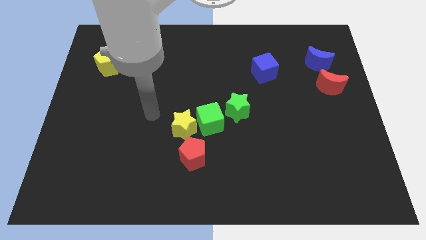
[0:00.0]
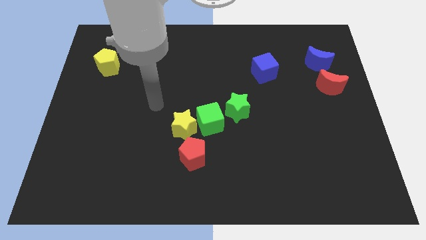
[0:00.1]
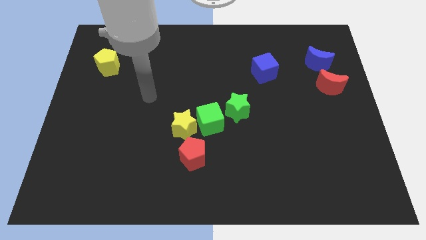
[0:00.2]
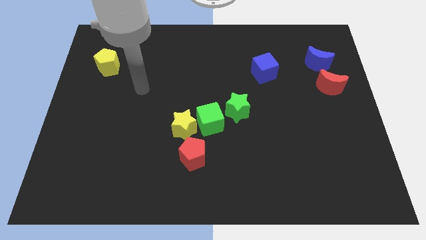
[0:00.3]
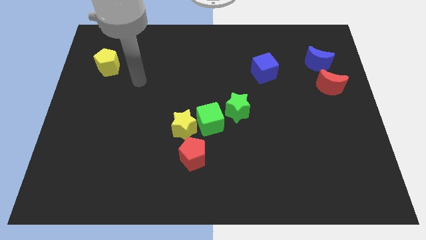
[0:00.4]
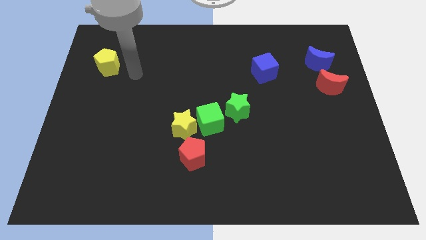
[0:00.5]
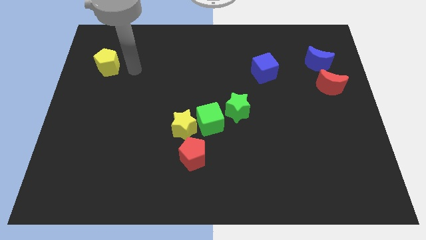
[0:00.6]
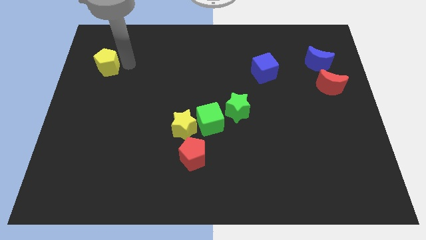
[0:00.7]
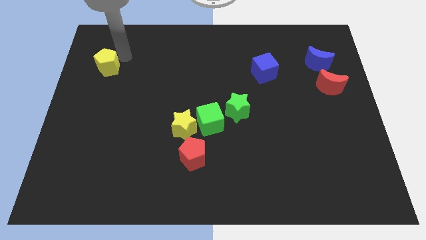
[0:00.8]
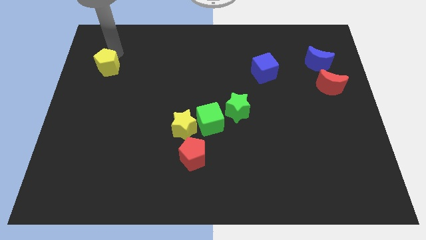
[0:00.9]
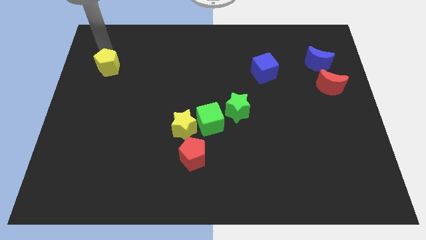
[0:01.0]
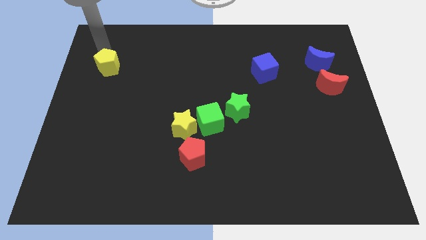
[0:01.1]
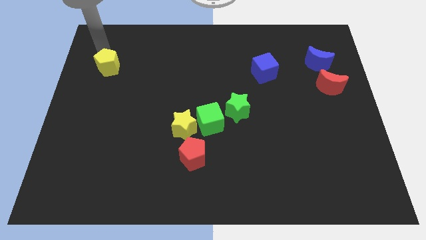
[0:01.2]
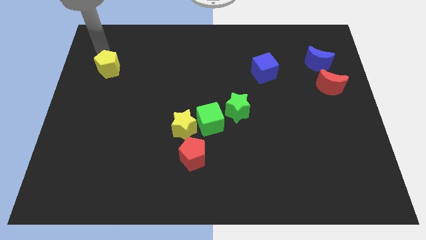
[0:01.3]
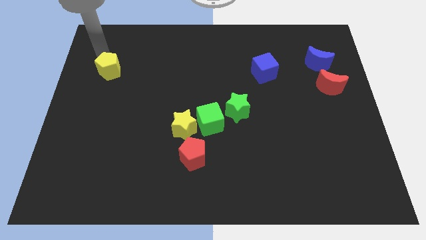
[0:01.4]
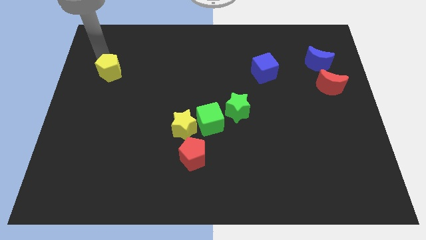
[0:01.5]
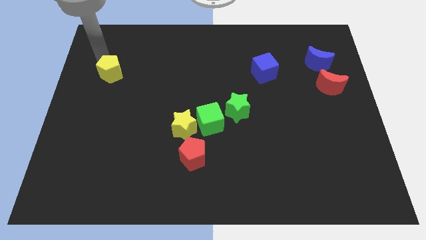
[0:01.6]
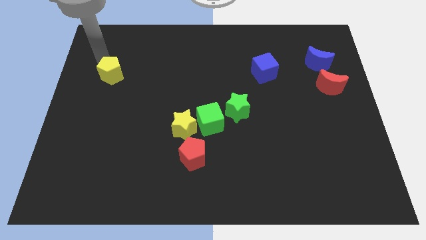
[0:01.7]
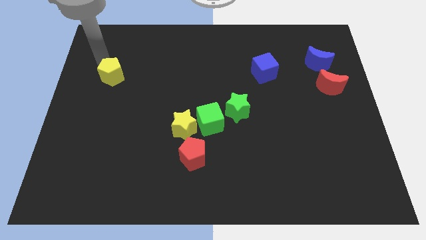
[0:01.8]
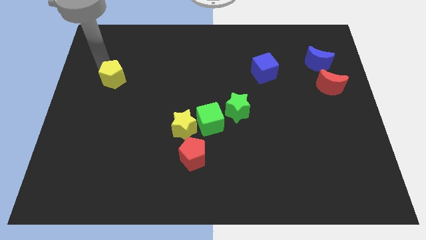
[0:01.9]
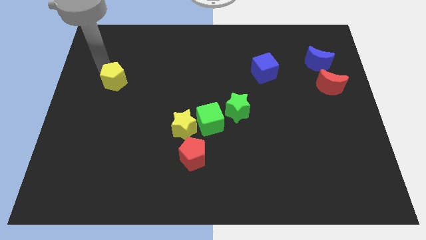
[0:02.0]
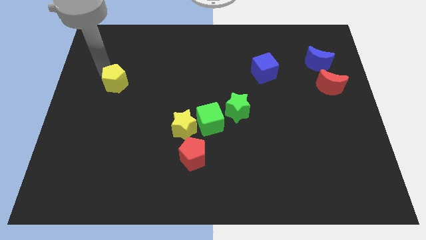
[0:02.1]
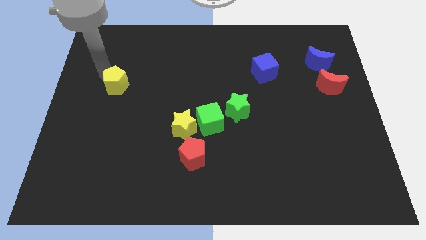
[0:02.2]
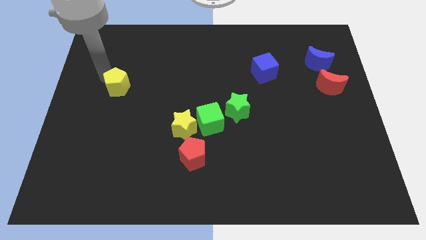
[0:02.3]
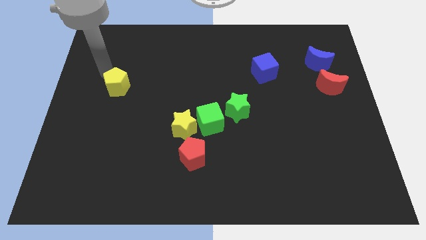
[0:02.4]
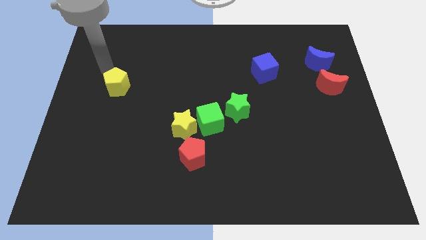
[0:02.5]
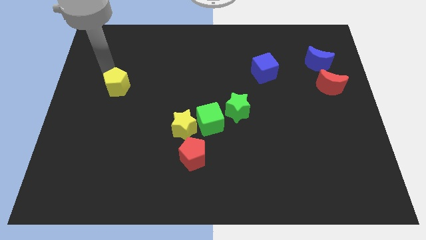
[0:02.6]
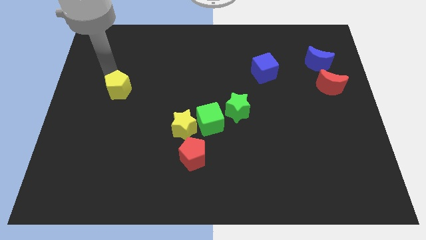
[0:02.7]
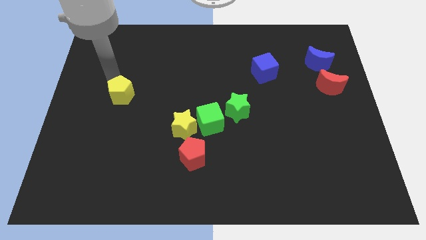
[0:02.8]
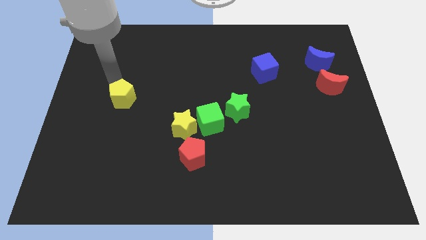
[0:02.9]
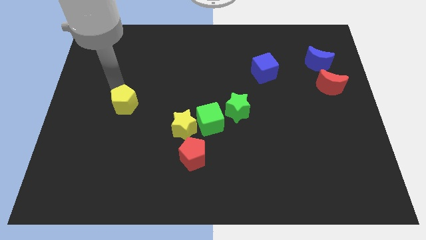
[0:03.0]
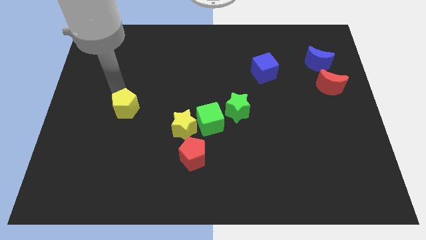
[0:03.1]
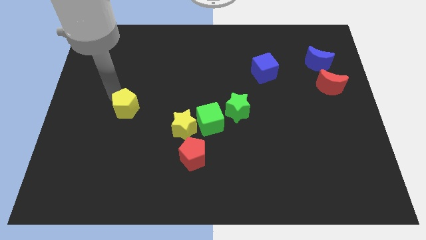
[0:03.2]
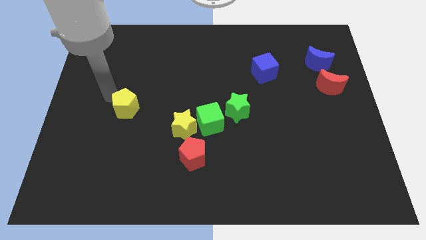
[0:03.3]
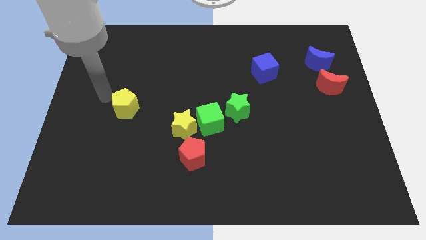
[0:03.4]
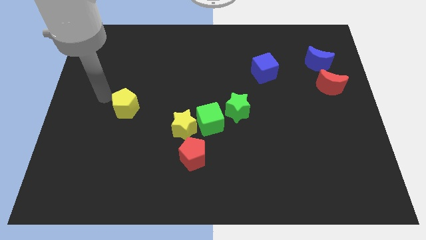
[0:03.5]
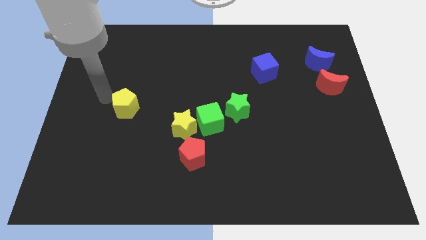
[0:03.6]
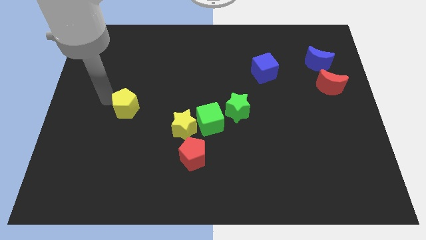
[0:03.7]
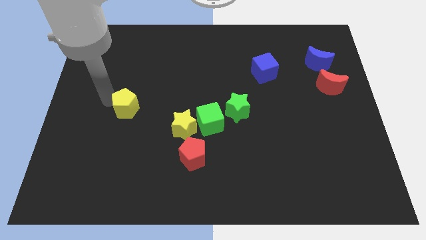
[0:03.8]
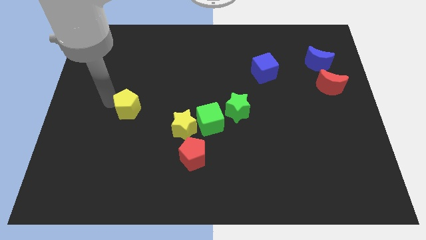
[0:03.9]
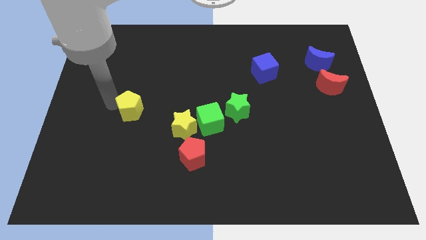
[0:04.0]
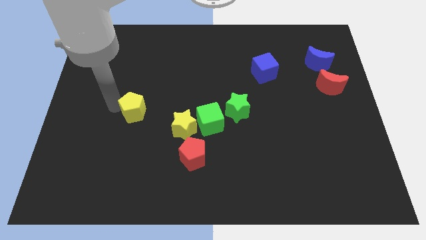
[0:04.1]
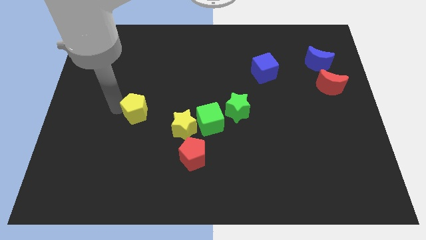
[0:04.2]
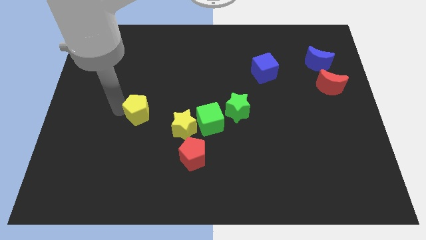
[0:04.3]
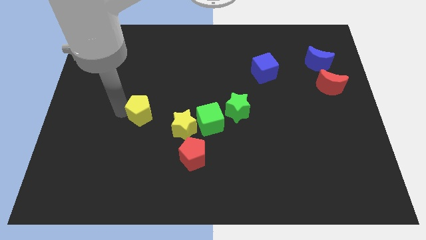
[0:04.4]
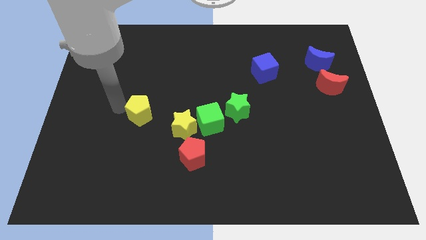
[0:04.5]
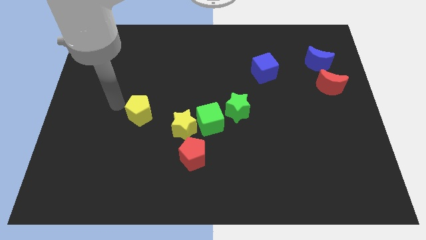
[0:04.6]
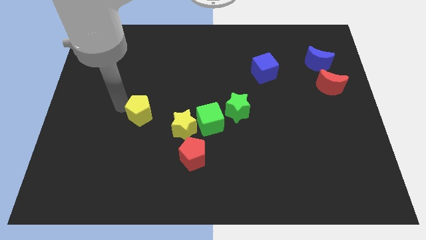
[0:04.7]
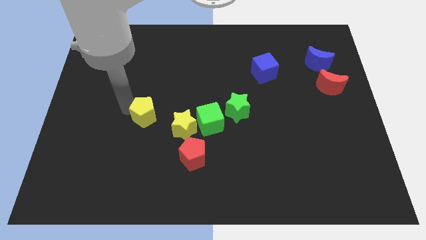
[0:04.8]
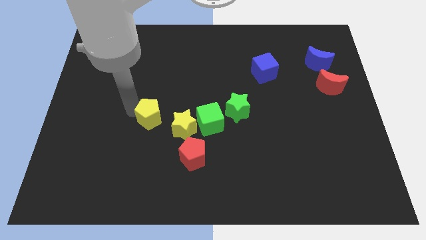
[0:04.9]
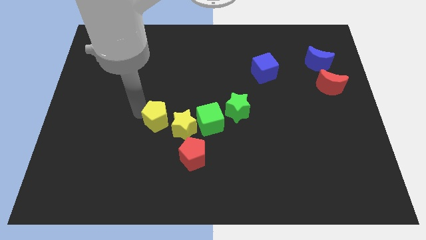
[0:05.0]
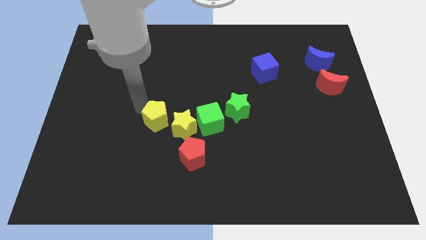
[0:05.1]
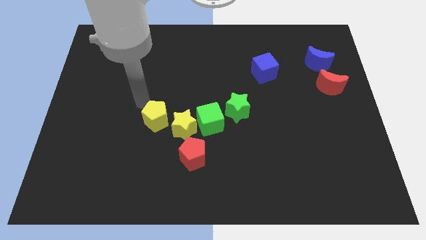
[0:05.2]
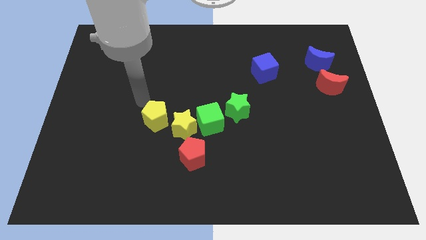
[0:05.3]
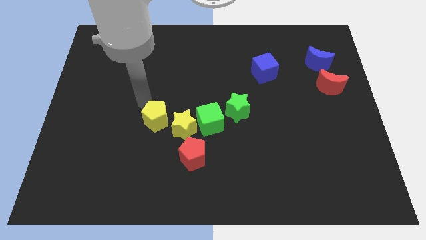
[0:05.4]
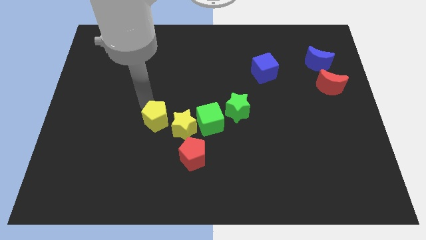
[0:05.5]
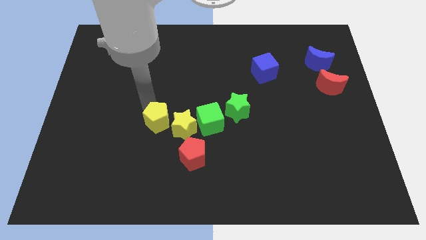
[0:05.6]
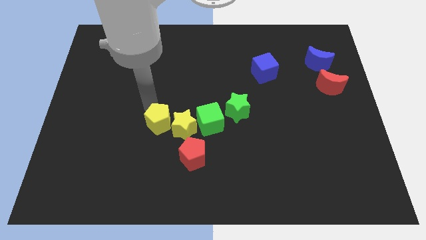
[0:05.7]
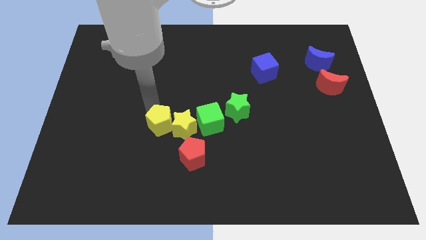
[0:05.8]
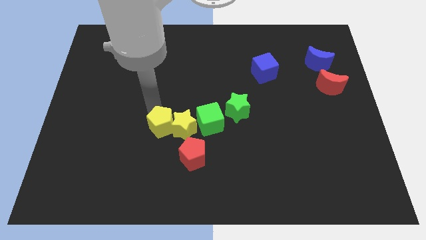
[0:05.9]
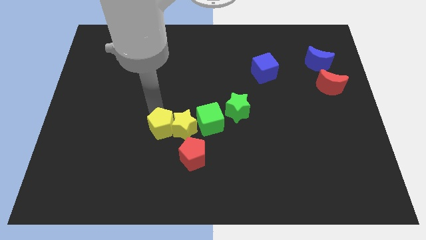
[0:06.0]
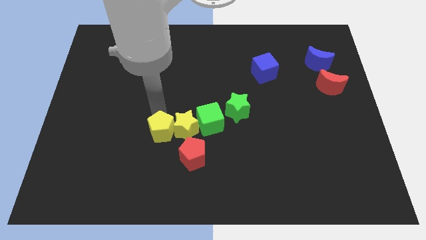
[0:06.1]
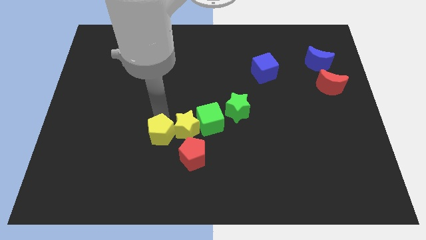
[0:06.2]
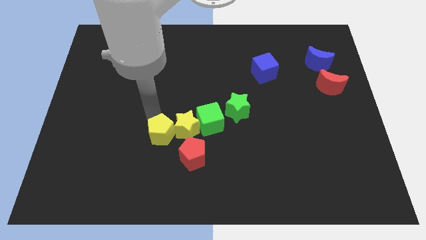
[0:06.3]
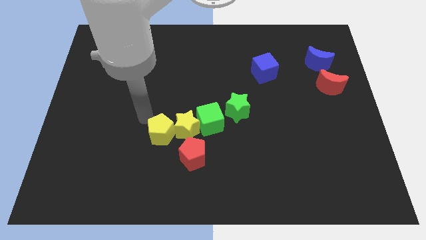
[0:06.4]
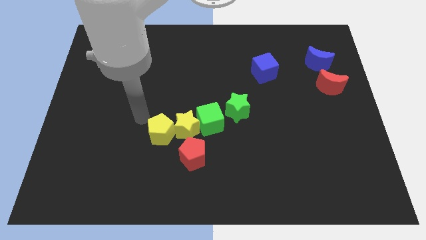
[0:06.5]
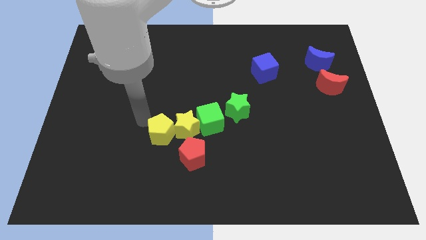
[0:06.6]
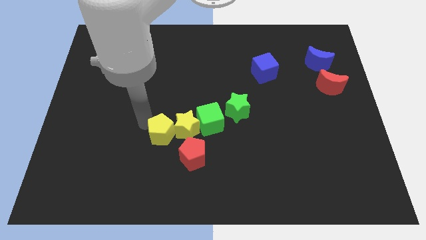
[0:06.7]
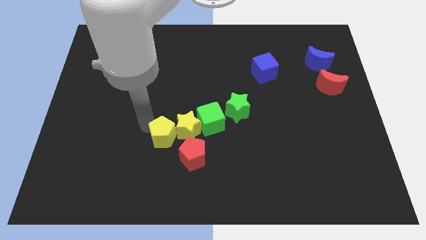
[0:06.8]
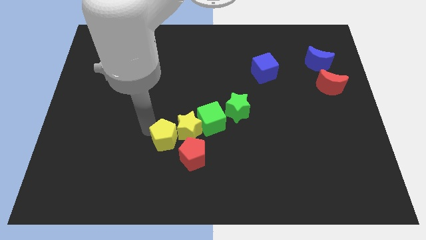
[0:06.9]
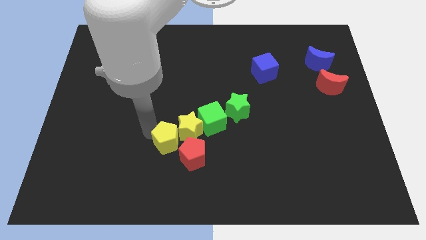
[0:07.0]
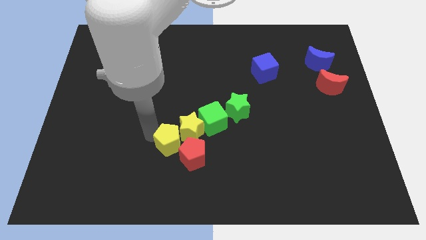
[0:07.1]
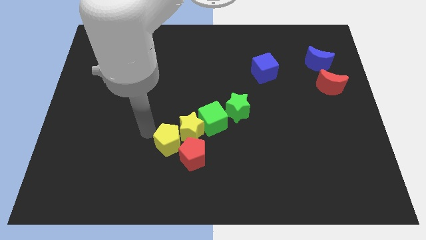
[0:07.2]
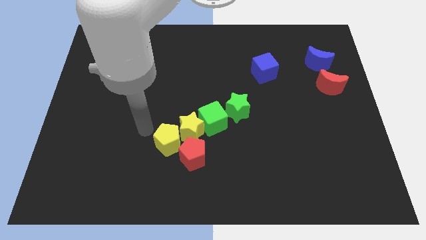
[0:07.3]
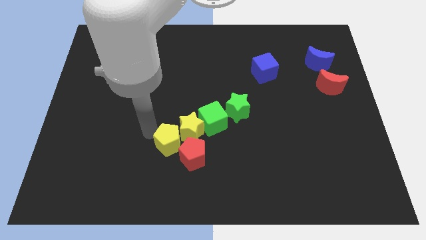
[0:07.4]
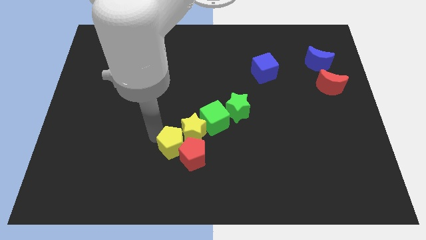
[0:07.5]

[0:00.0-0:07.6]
push the yellow pentagon towards the red pentagon

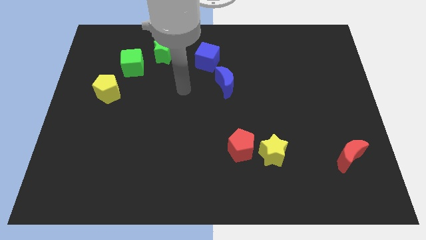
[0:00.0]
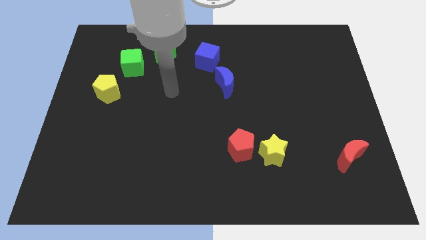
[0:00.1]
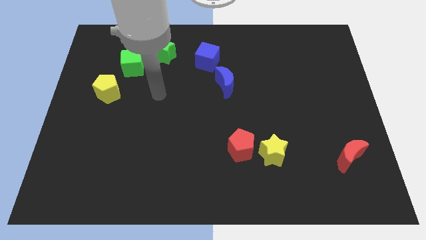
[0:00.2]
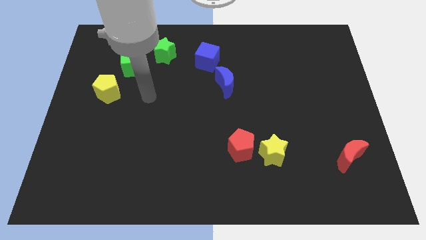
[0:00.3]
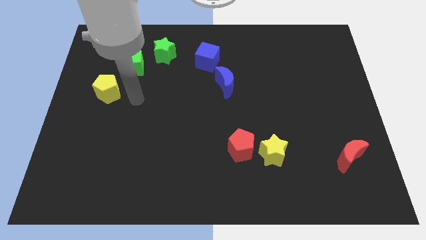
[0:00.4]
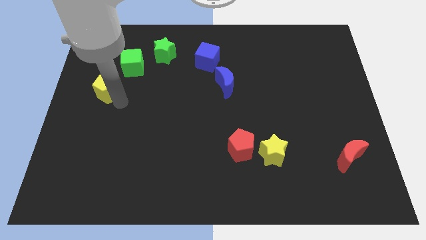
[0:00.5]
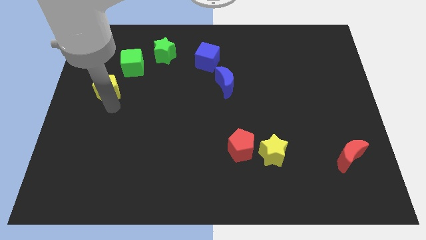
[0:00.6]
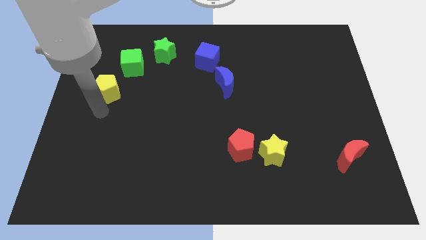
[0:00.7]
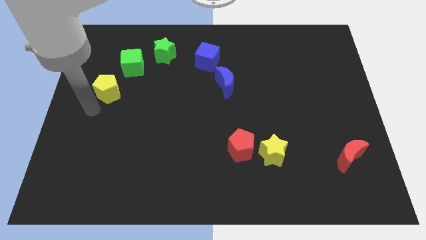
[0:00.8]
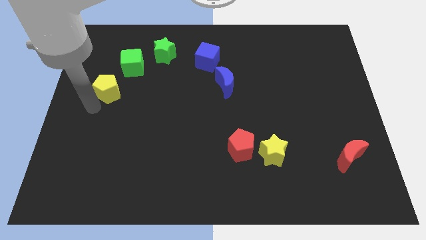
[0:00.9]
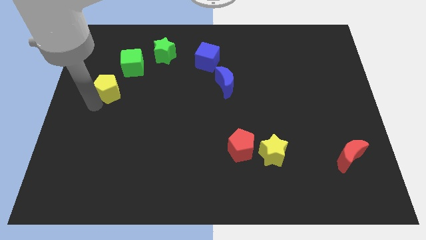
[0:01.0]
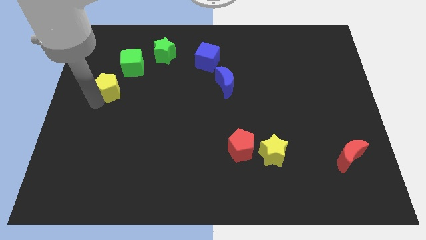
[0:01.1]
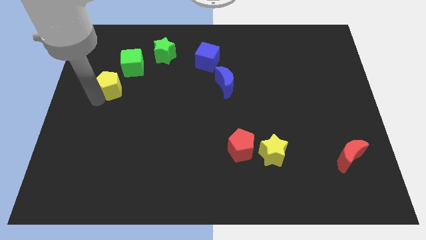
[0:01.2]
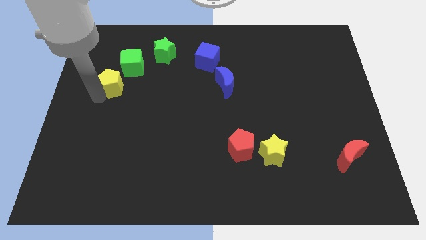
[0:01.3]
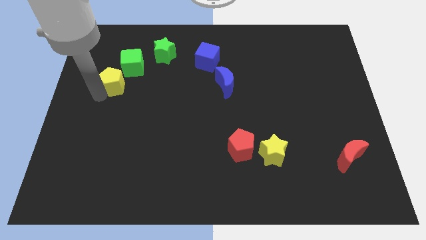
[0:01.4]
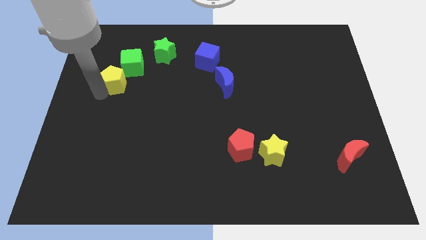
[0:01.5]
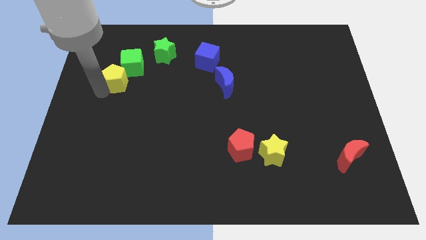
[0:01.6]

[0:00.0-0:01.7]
put the yellow pentagon close to the green cube
